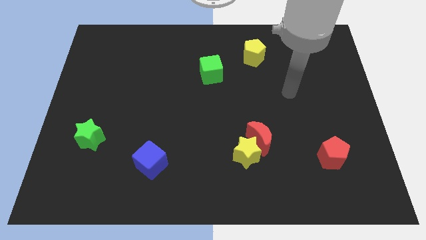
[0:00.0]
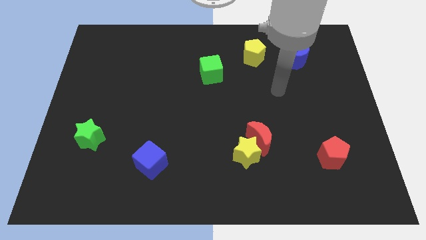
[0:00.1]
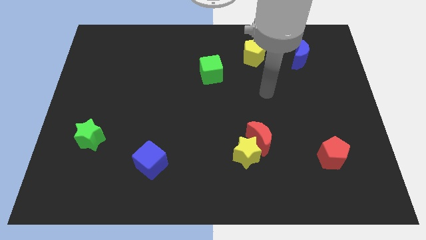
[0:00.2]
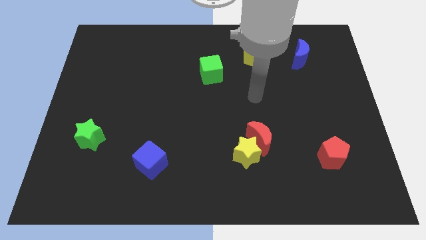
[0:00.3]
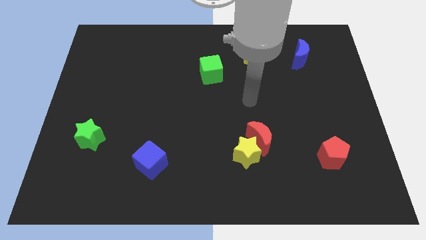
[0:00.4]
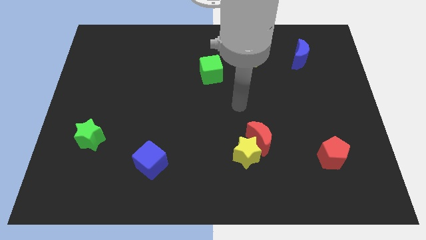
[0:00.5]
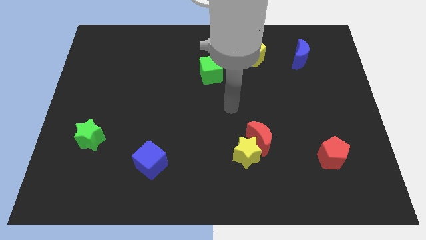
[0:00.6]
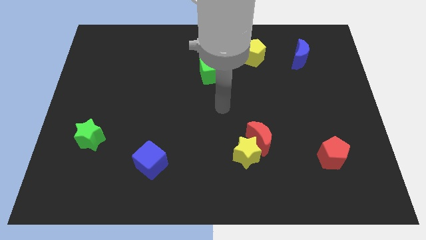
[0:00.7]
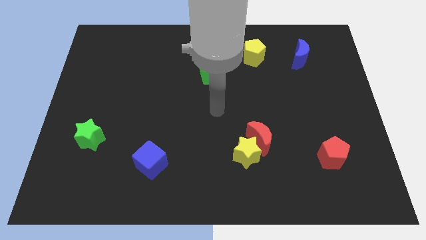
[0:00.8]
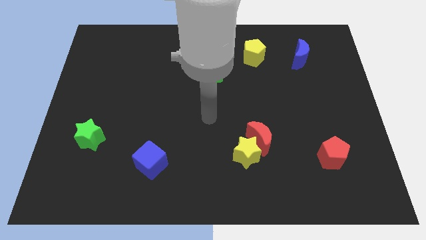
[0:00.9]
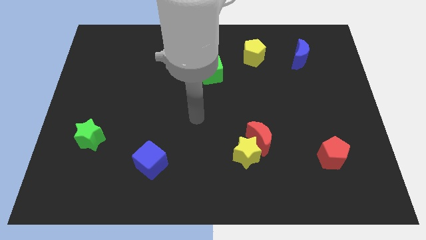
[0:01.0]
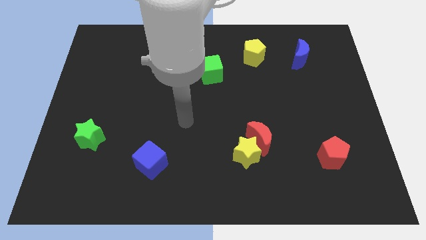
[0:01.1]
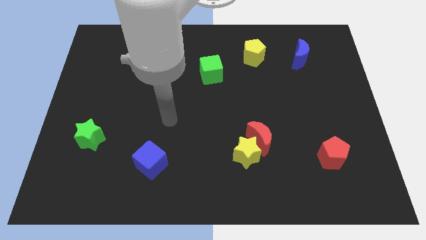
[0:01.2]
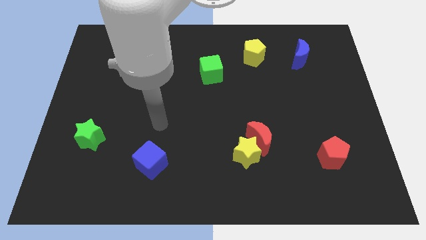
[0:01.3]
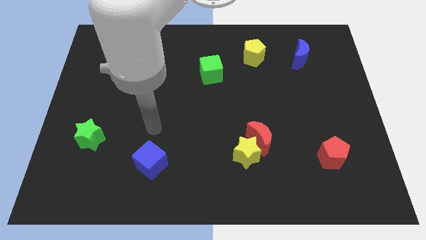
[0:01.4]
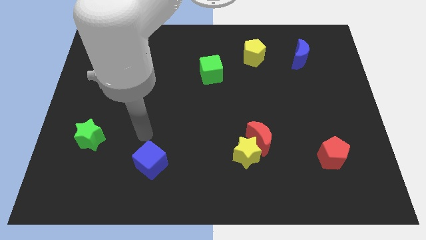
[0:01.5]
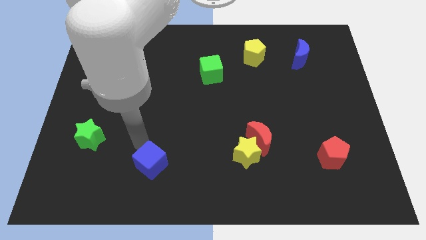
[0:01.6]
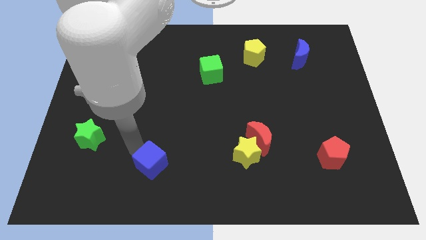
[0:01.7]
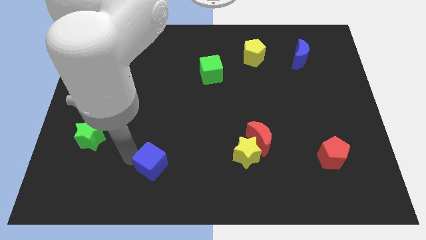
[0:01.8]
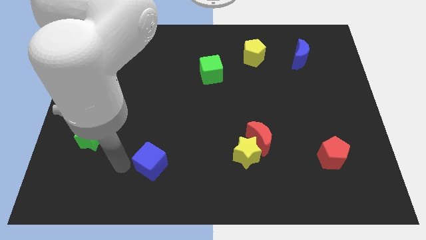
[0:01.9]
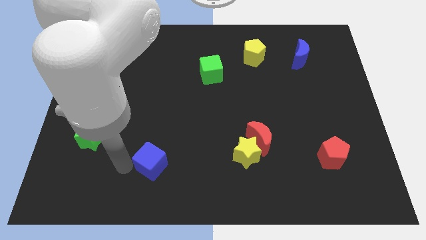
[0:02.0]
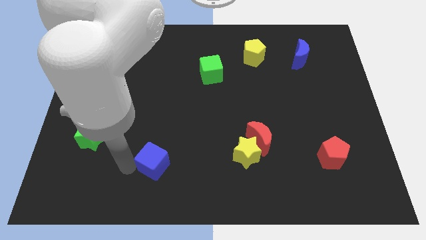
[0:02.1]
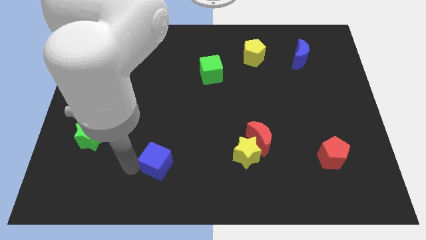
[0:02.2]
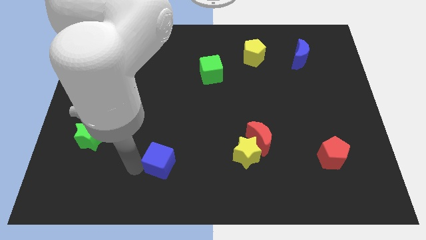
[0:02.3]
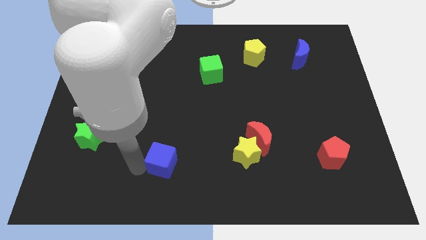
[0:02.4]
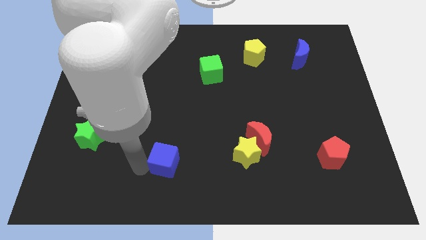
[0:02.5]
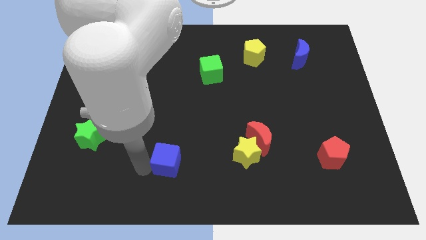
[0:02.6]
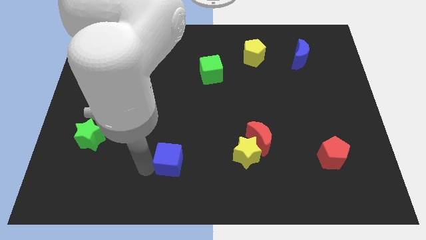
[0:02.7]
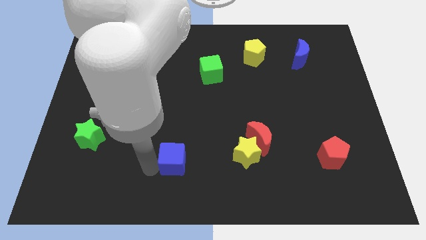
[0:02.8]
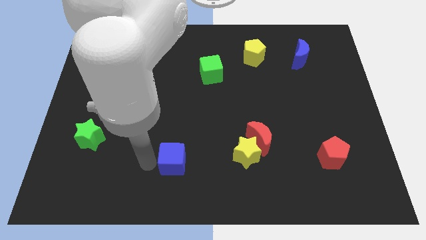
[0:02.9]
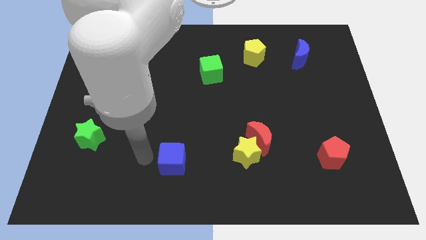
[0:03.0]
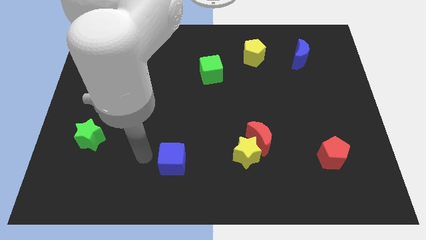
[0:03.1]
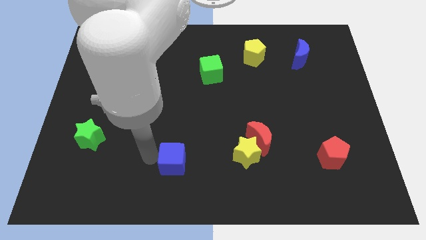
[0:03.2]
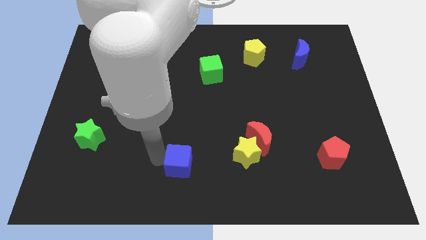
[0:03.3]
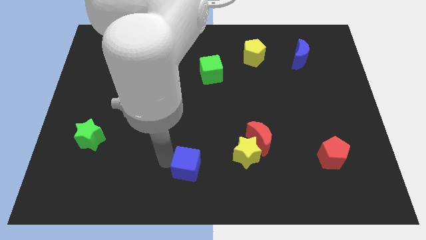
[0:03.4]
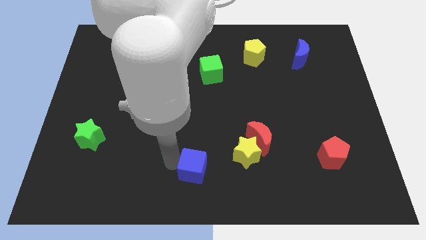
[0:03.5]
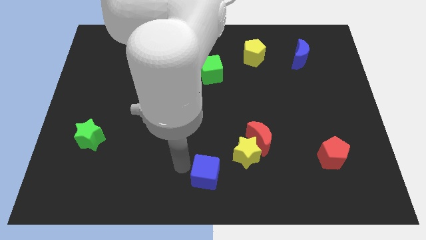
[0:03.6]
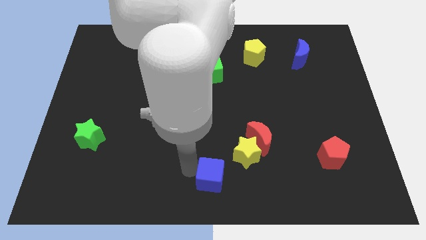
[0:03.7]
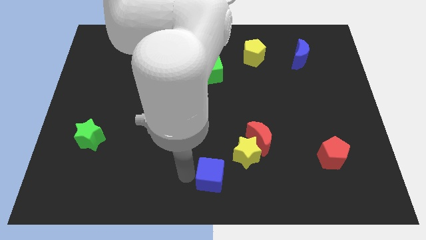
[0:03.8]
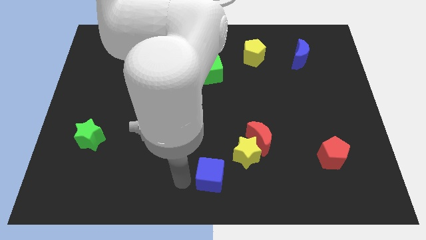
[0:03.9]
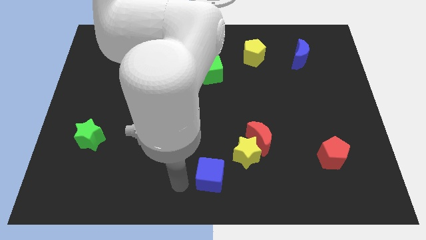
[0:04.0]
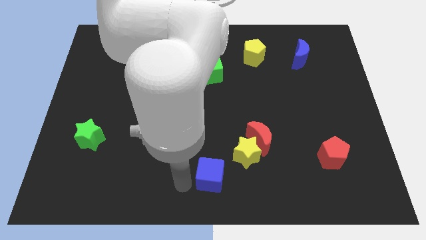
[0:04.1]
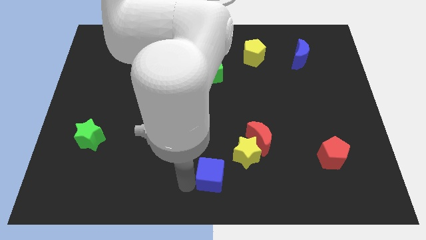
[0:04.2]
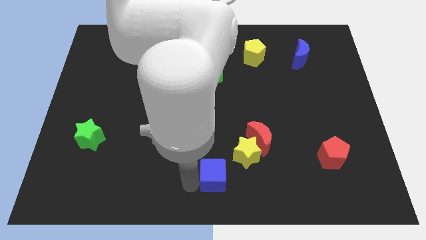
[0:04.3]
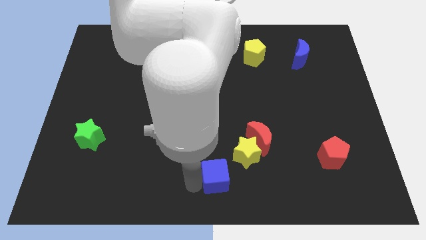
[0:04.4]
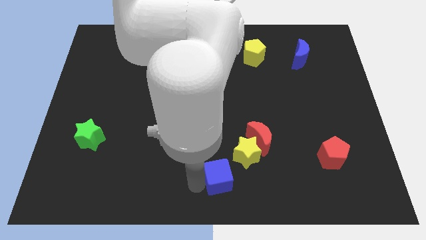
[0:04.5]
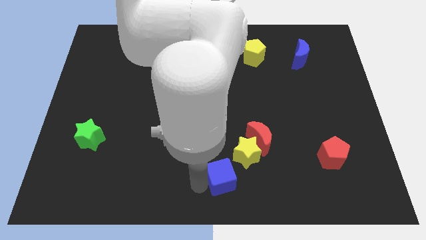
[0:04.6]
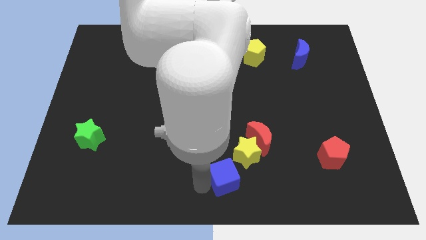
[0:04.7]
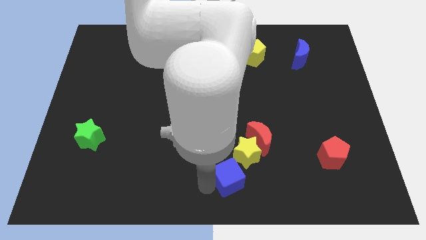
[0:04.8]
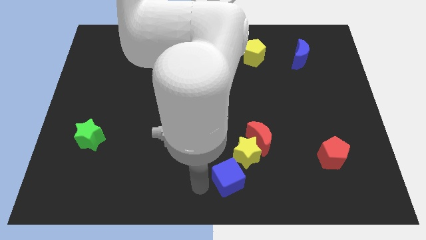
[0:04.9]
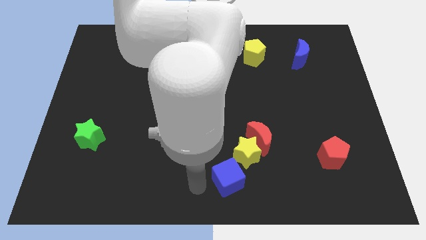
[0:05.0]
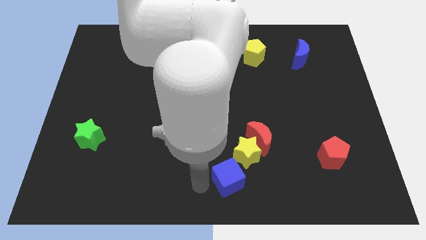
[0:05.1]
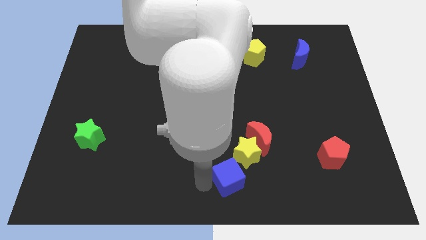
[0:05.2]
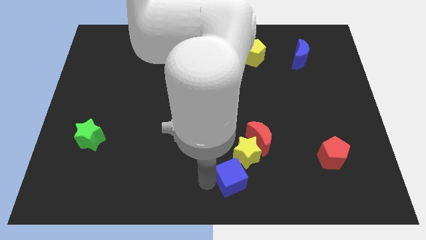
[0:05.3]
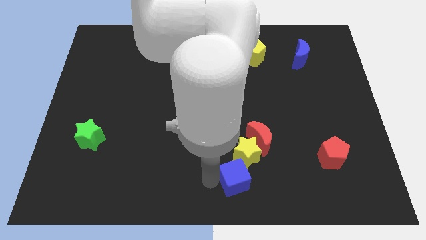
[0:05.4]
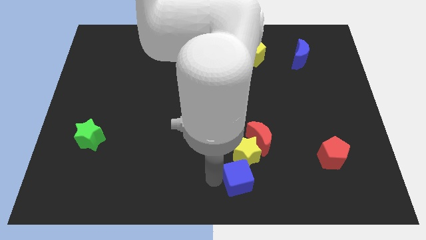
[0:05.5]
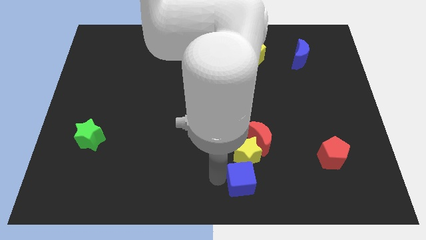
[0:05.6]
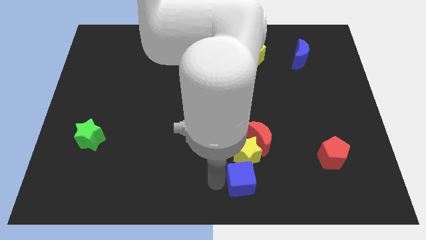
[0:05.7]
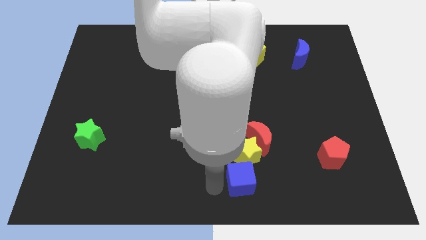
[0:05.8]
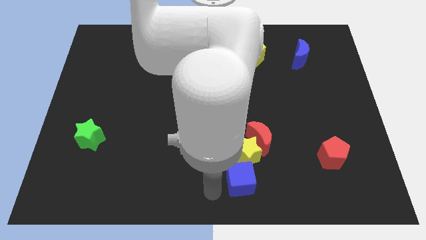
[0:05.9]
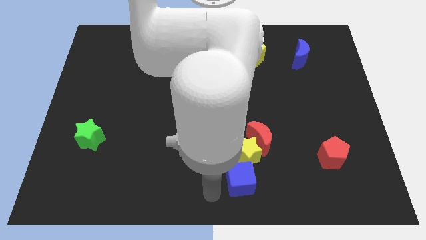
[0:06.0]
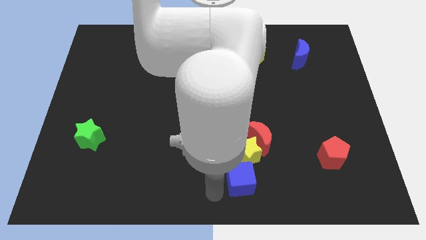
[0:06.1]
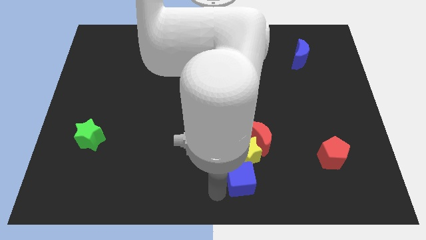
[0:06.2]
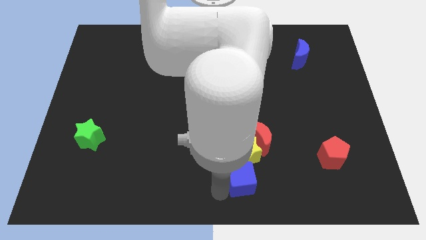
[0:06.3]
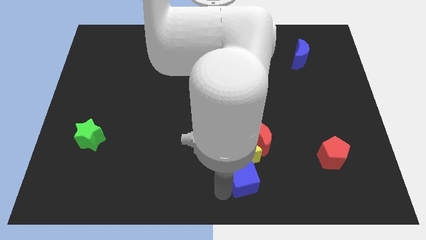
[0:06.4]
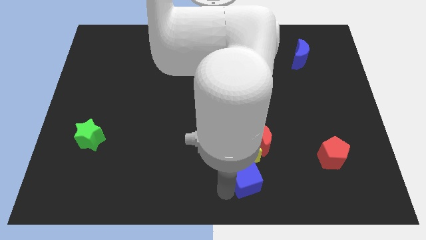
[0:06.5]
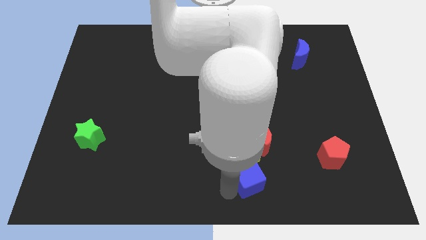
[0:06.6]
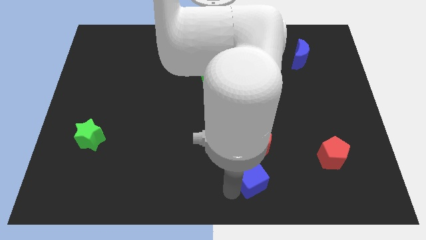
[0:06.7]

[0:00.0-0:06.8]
slide the blue cube to the right

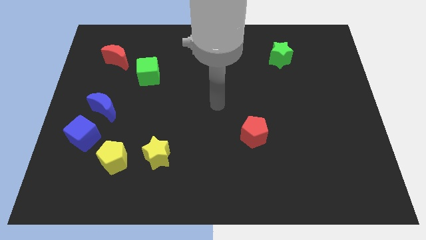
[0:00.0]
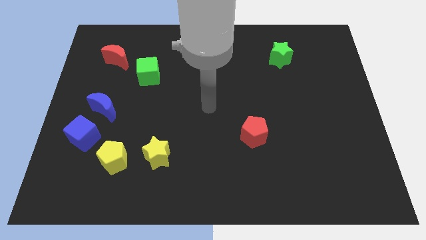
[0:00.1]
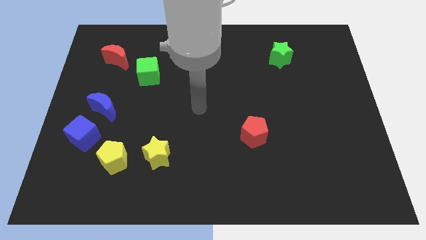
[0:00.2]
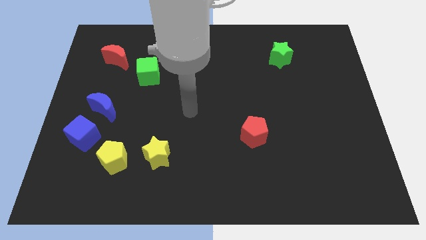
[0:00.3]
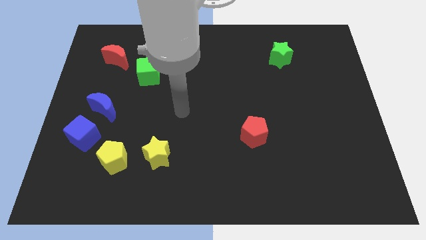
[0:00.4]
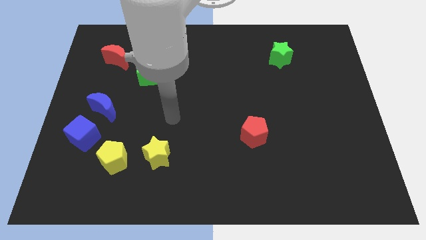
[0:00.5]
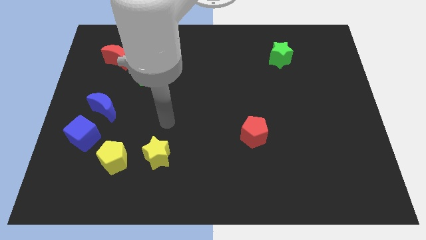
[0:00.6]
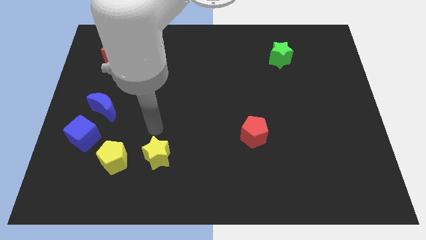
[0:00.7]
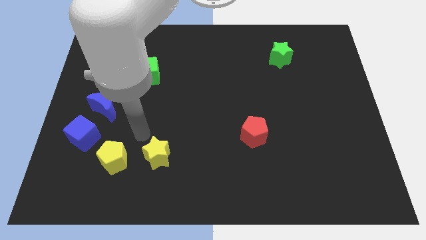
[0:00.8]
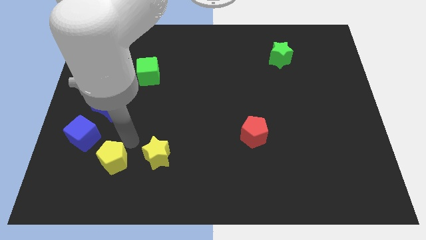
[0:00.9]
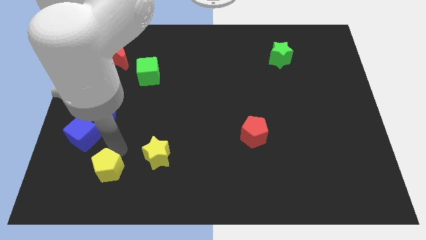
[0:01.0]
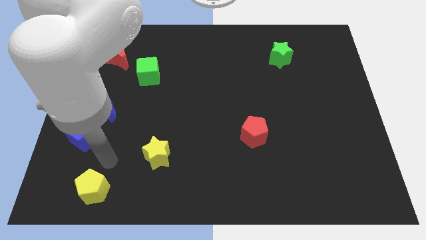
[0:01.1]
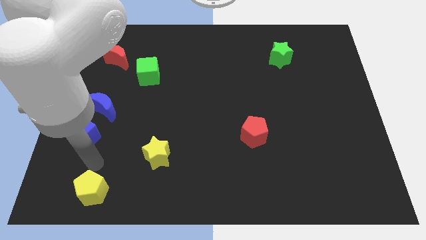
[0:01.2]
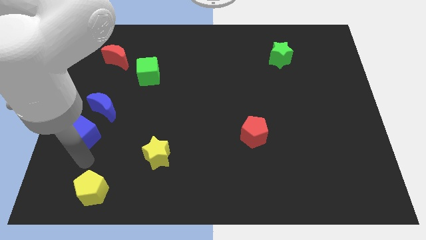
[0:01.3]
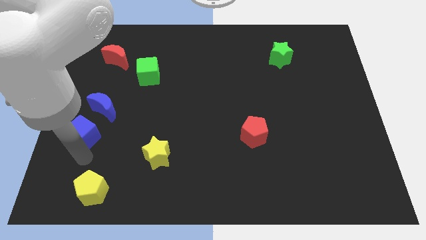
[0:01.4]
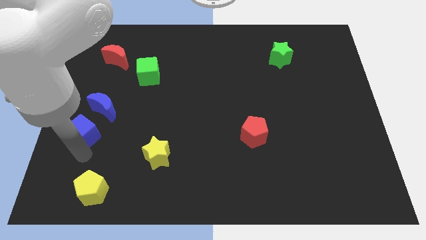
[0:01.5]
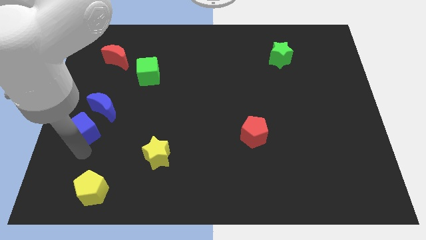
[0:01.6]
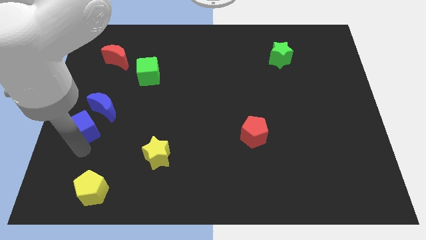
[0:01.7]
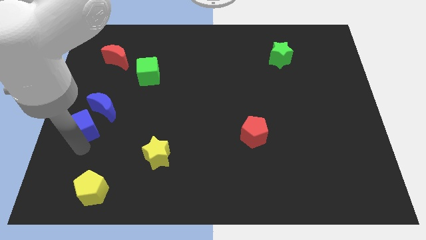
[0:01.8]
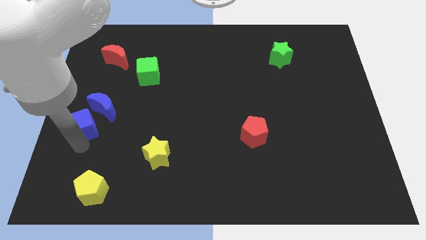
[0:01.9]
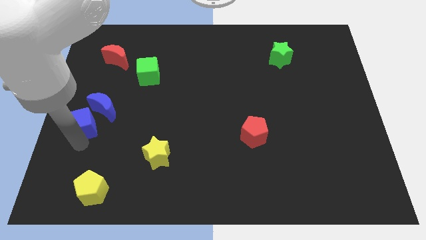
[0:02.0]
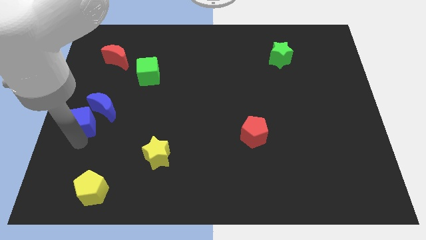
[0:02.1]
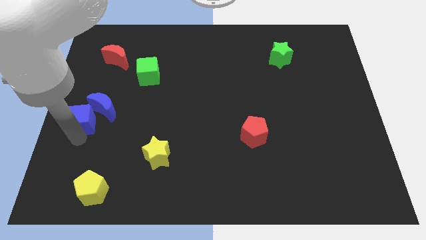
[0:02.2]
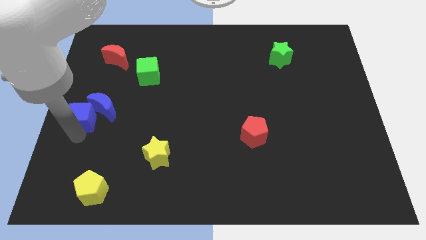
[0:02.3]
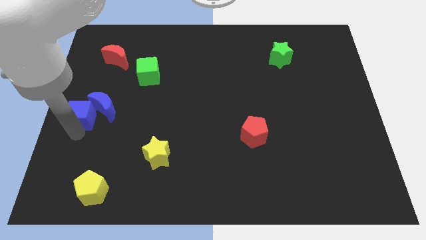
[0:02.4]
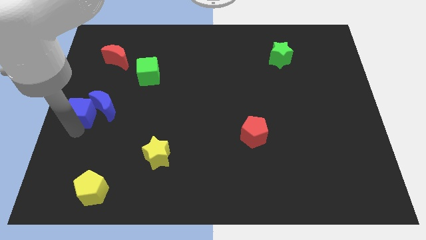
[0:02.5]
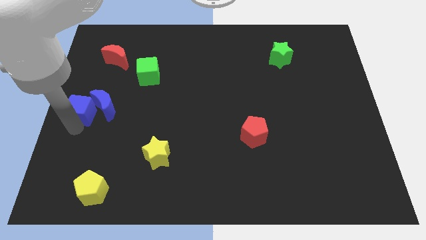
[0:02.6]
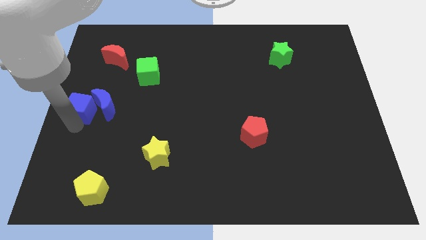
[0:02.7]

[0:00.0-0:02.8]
move the blue cube a little upwards
